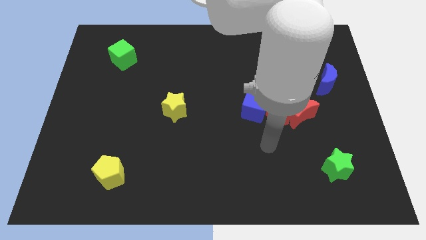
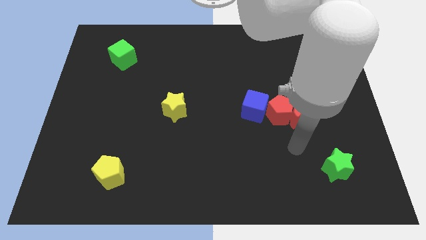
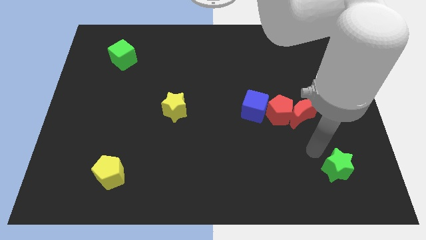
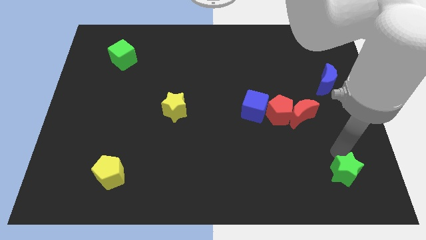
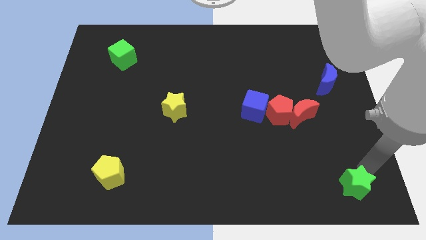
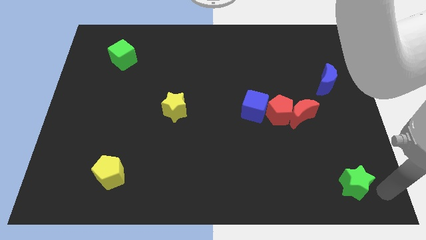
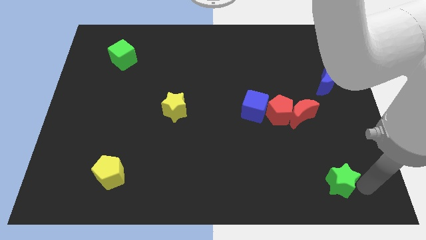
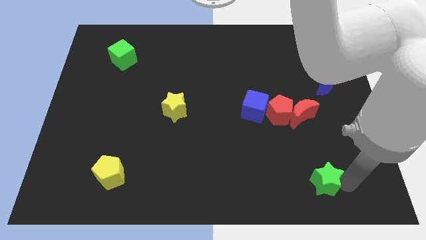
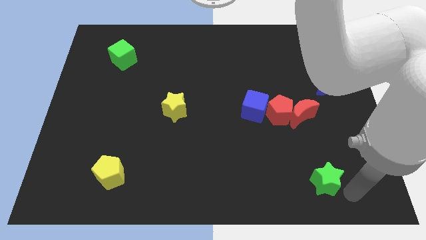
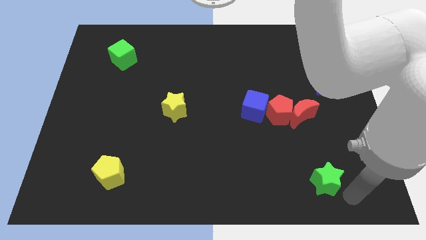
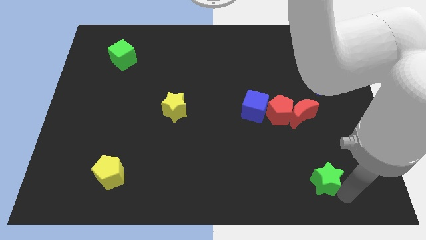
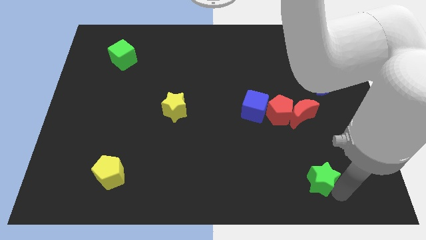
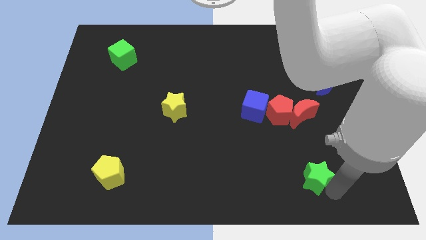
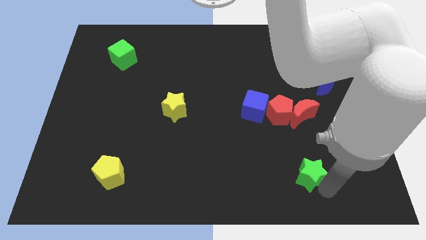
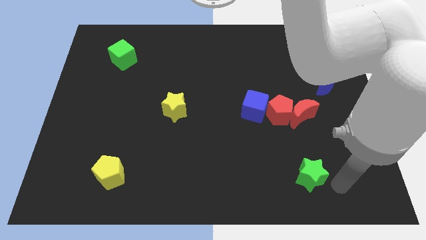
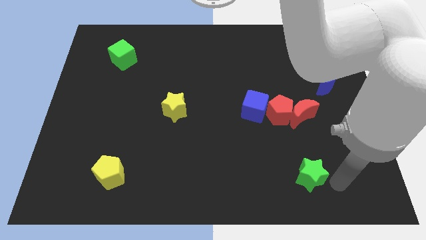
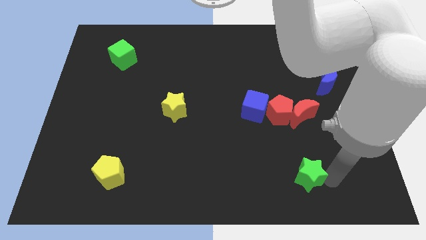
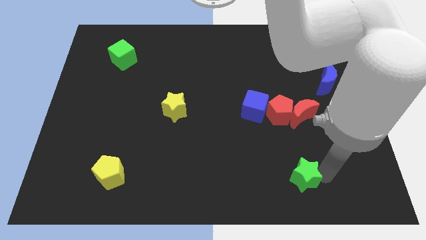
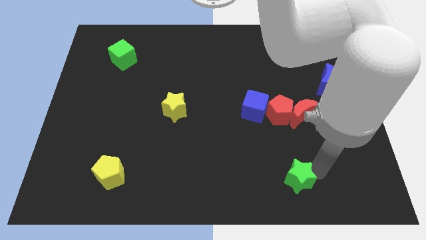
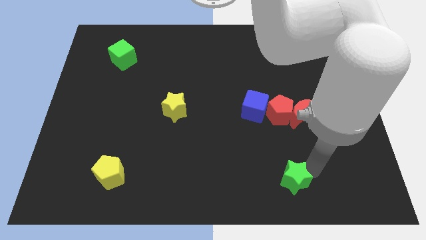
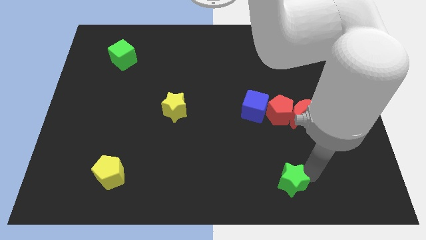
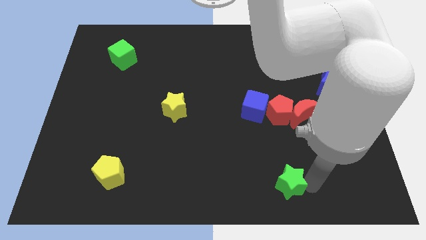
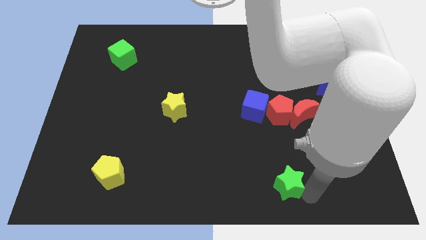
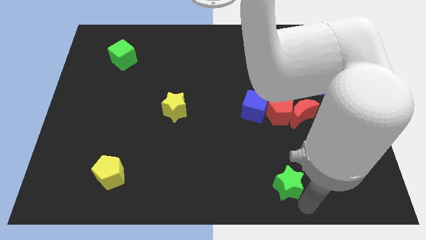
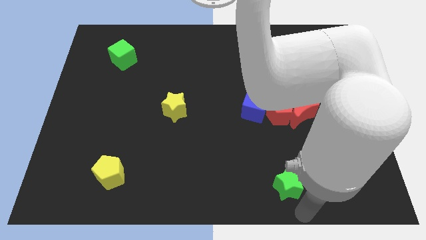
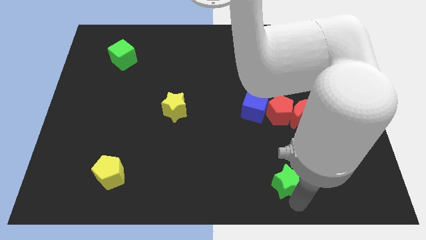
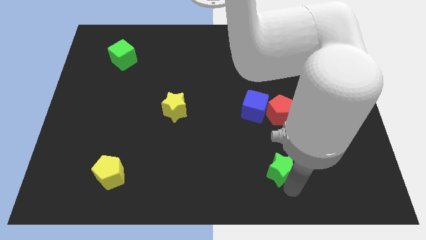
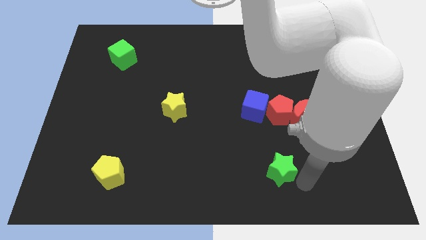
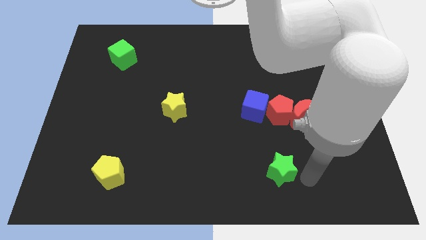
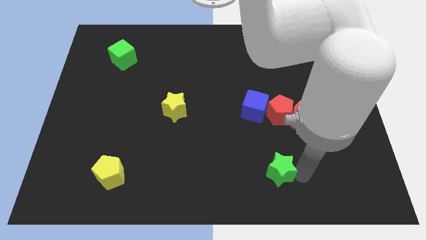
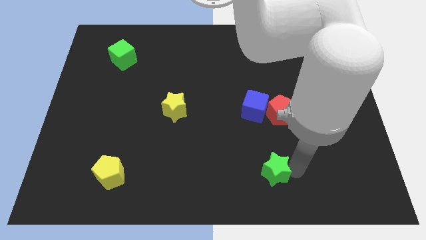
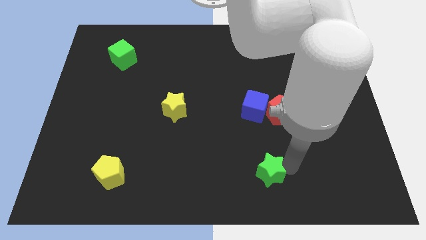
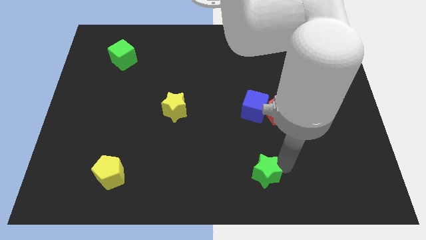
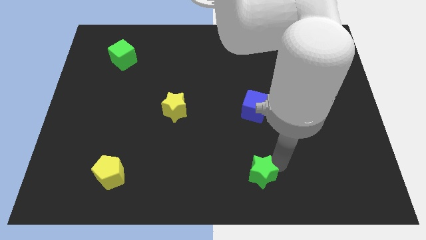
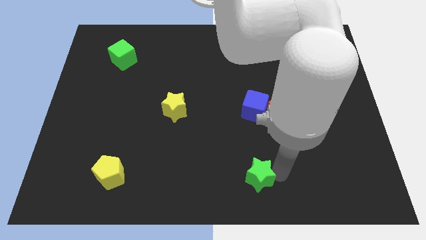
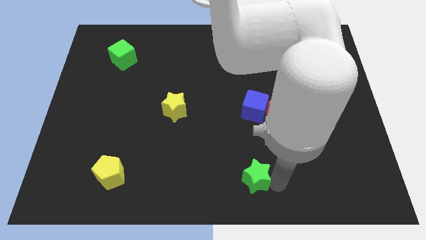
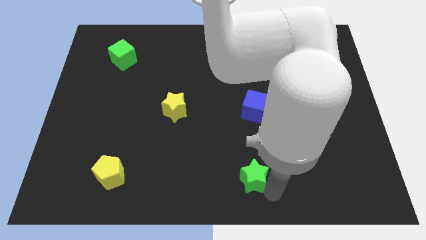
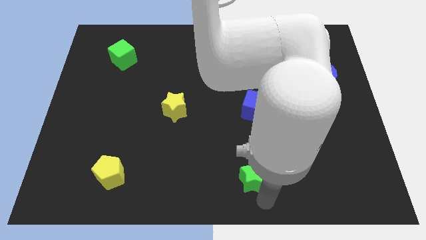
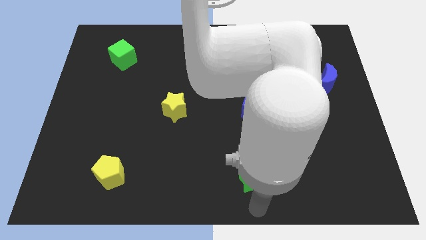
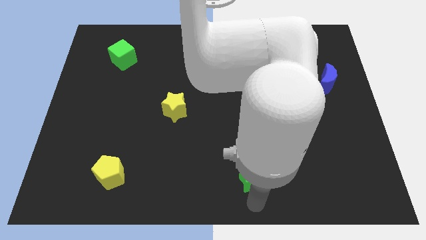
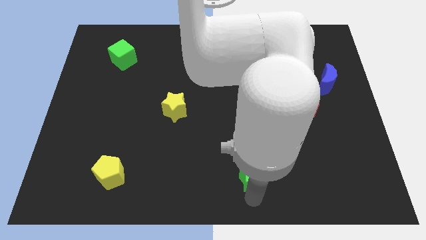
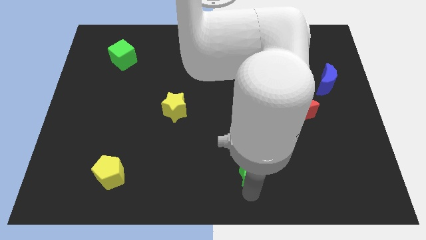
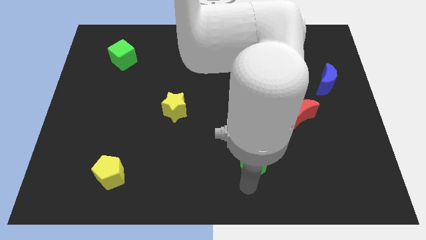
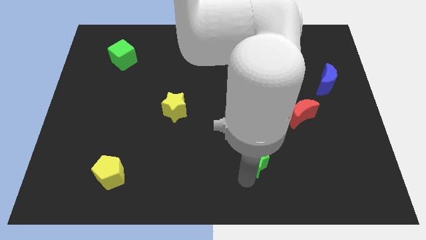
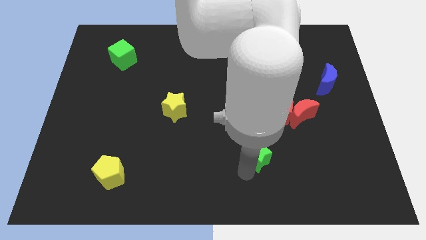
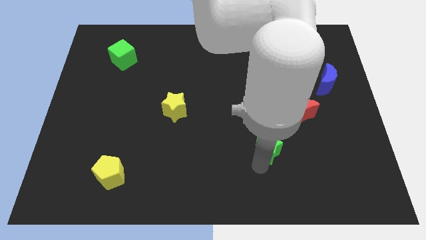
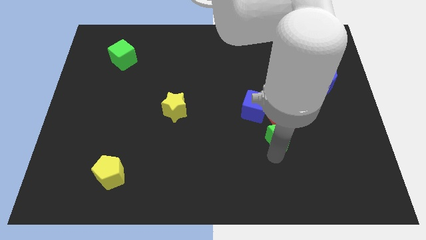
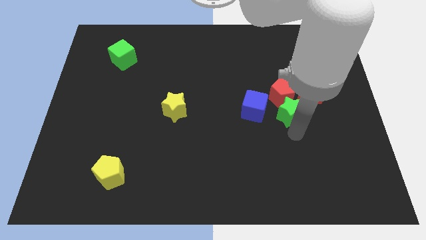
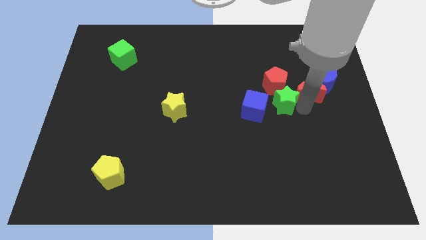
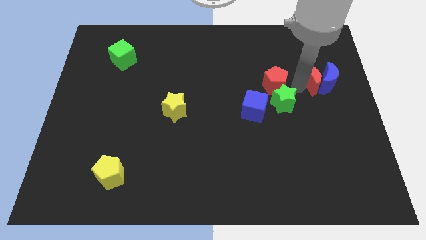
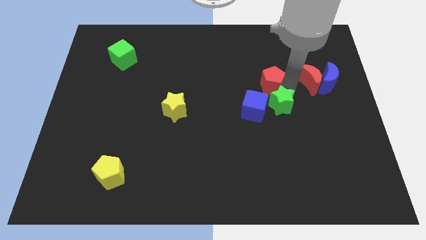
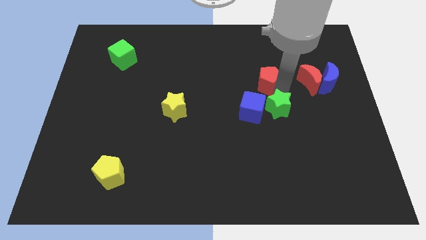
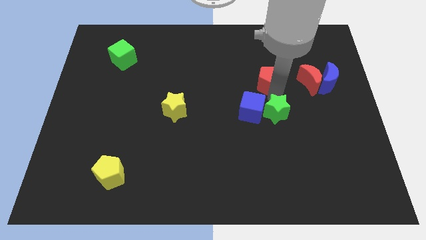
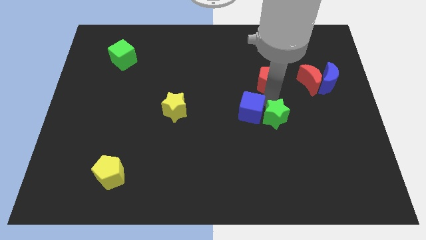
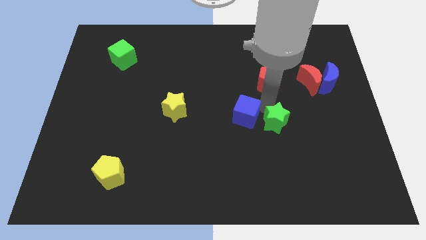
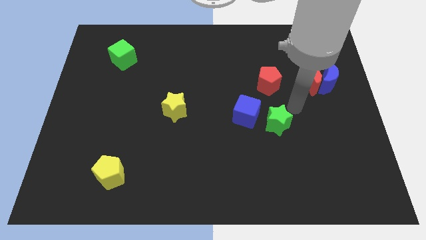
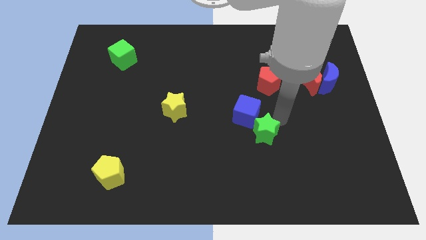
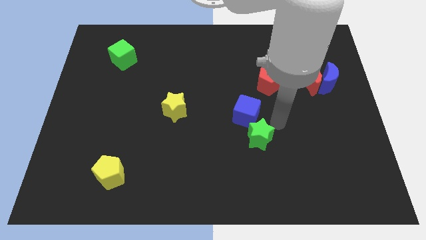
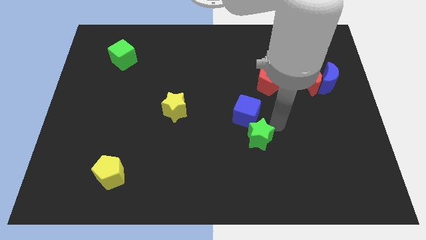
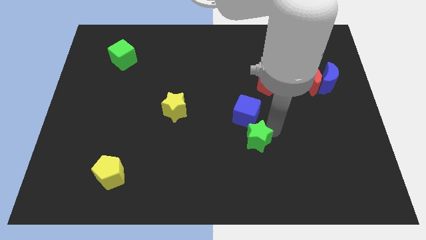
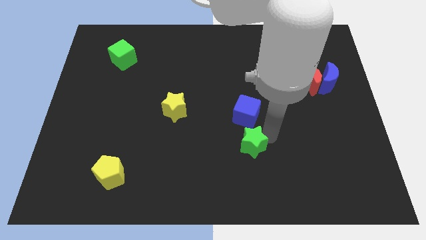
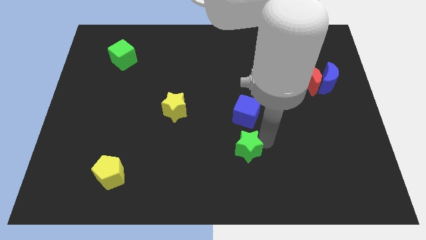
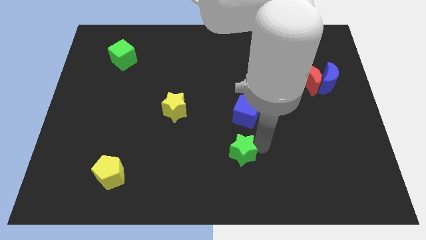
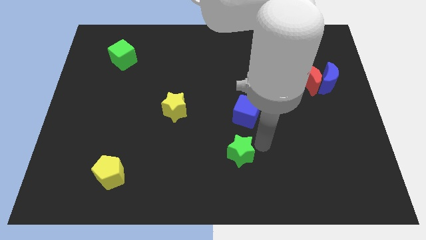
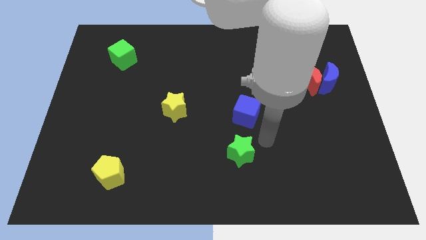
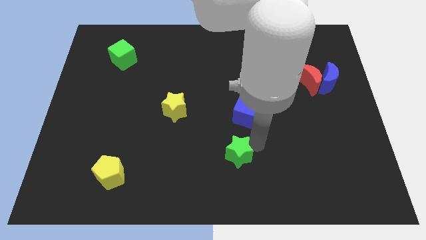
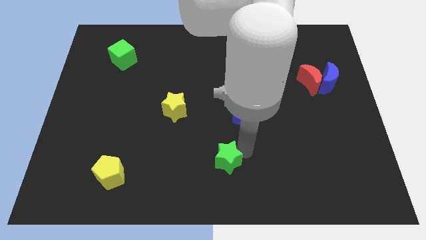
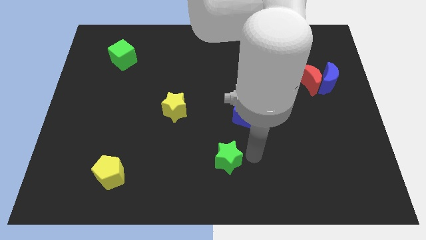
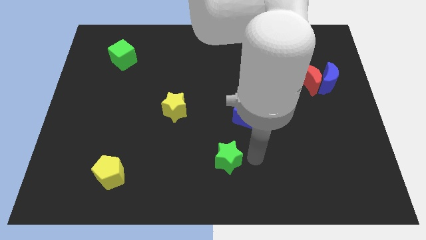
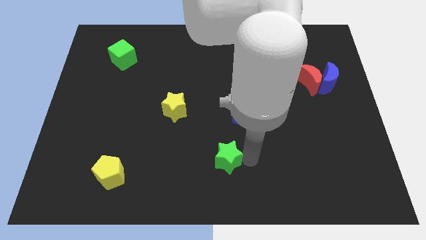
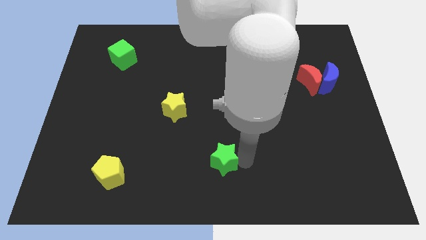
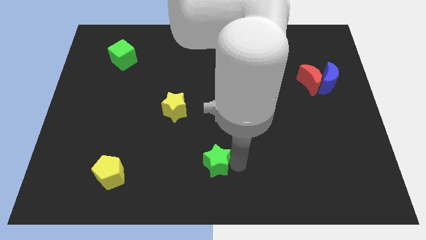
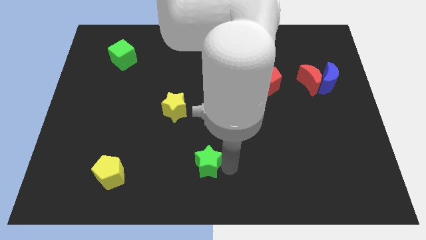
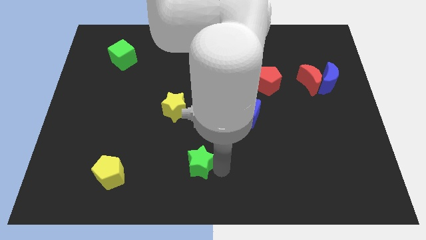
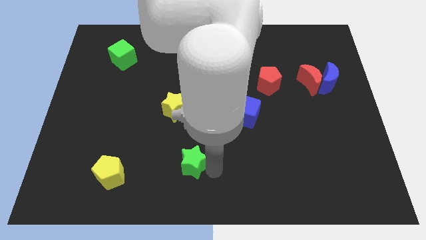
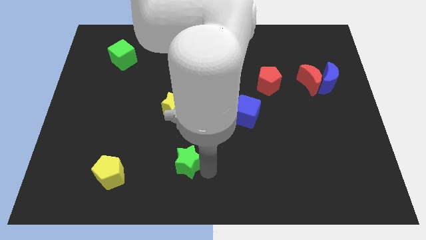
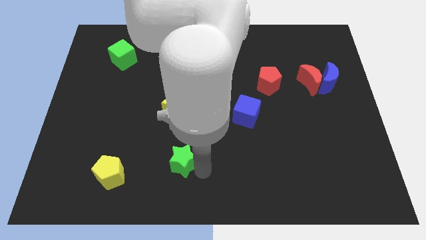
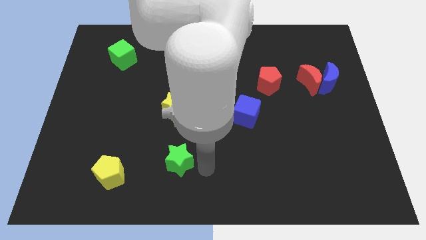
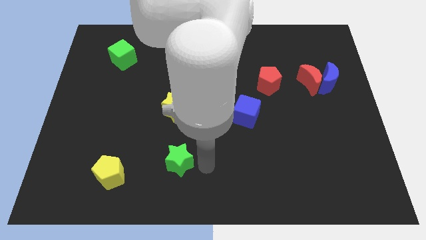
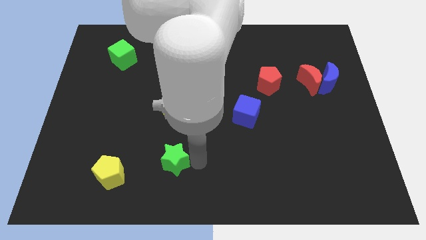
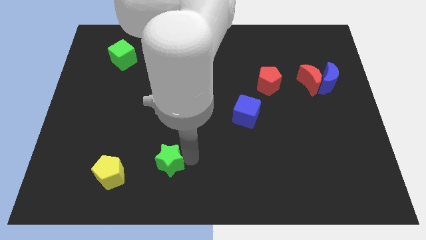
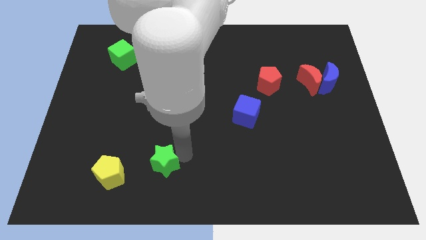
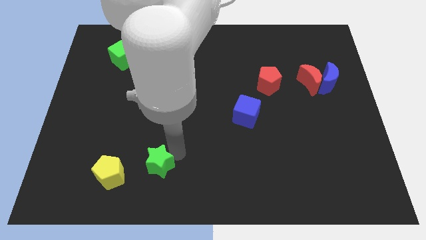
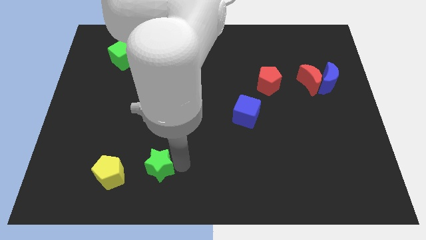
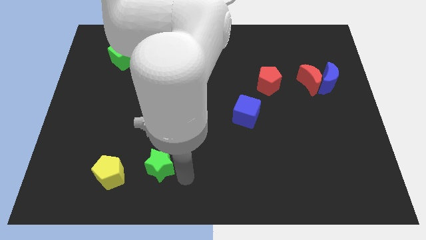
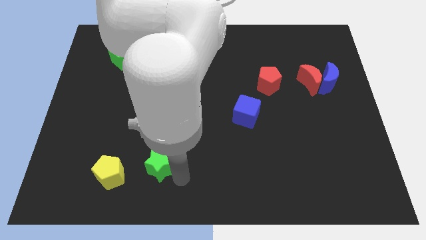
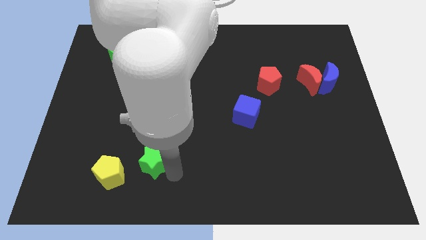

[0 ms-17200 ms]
push the green star to the top right of the yellow pentagon
